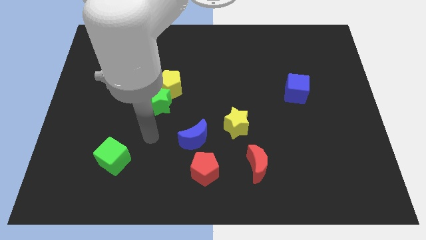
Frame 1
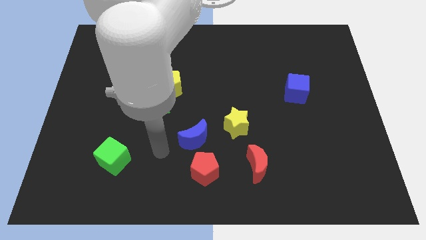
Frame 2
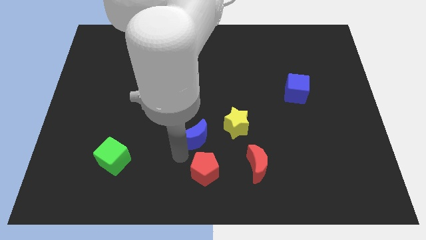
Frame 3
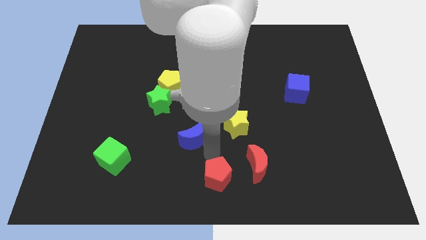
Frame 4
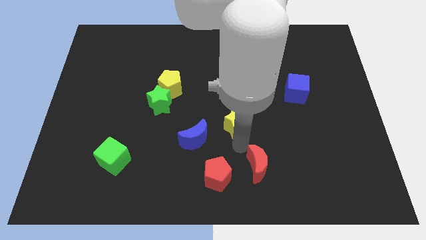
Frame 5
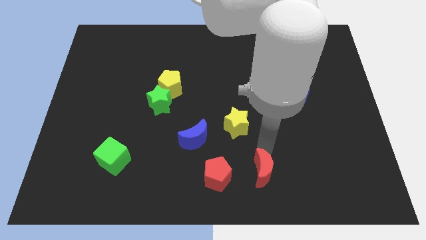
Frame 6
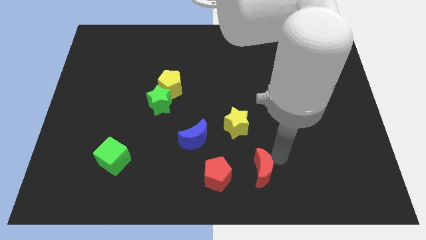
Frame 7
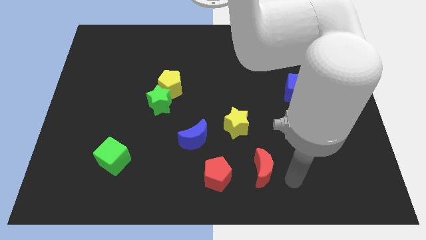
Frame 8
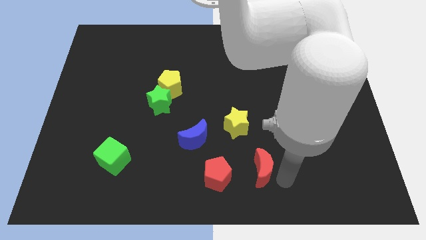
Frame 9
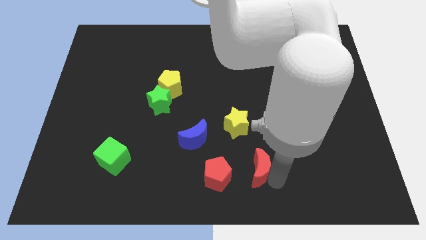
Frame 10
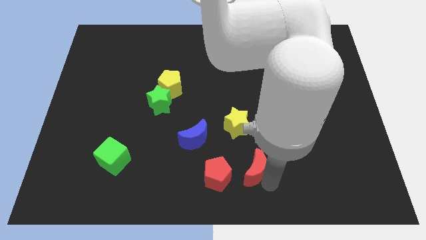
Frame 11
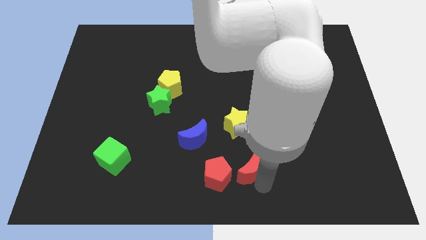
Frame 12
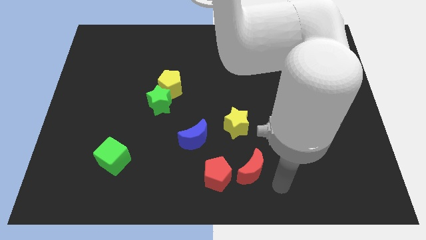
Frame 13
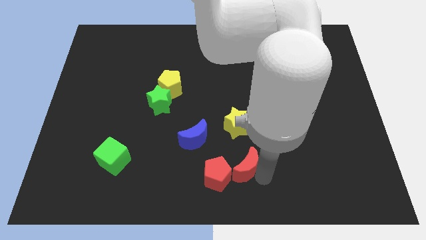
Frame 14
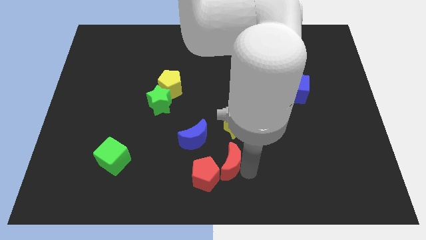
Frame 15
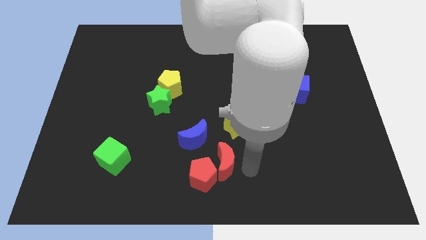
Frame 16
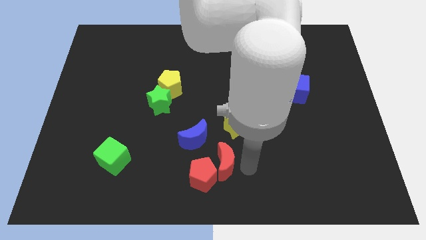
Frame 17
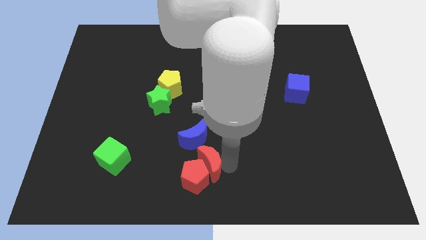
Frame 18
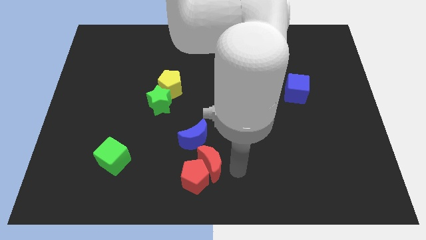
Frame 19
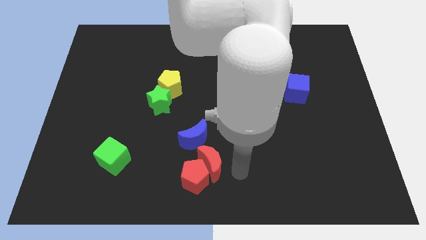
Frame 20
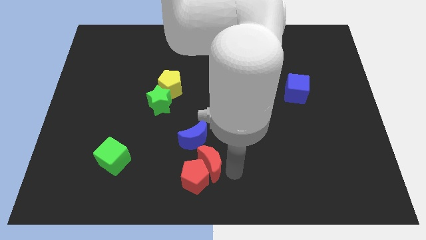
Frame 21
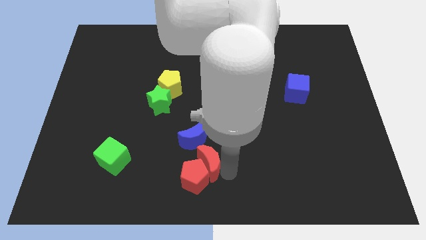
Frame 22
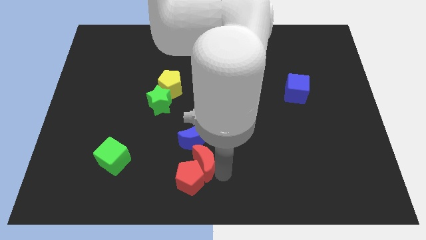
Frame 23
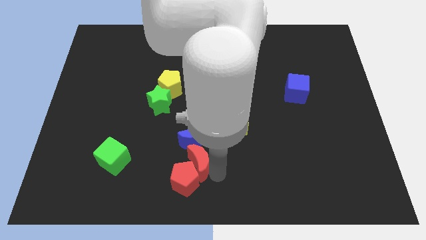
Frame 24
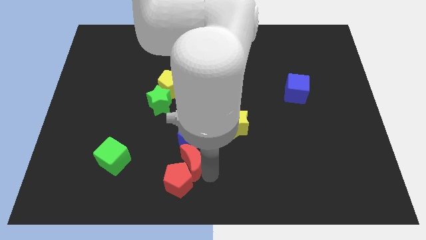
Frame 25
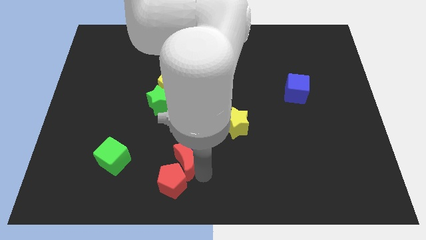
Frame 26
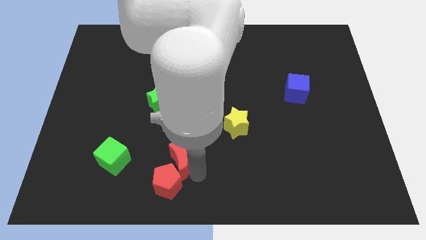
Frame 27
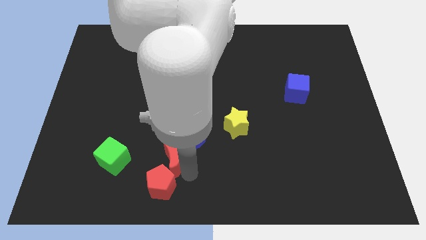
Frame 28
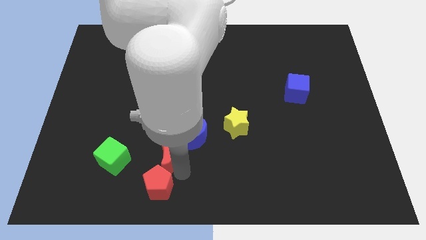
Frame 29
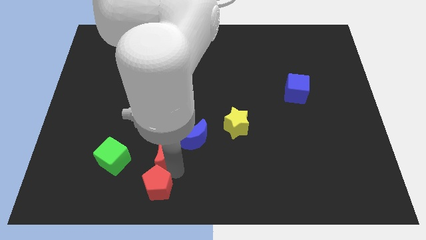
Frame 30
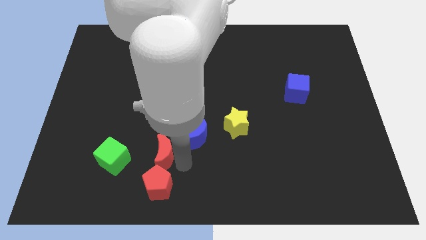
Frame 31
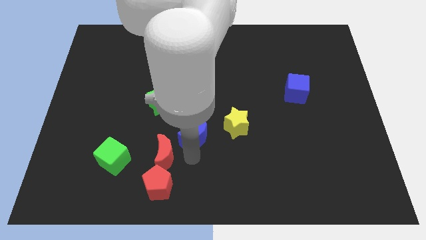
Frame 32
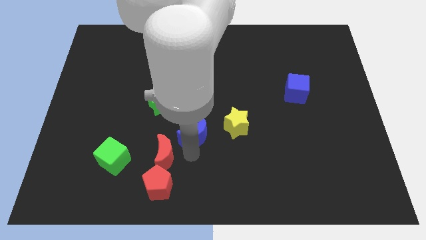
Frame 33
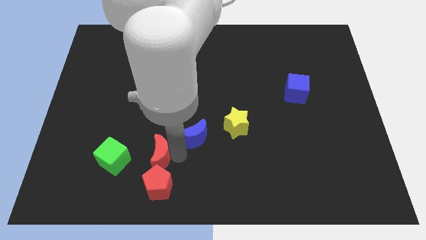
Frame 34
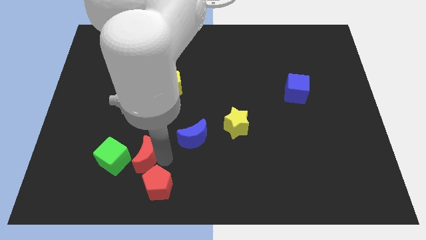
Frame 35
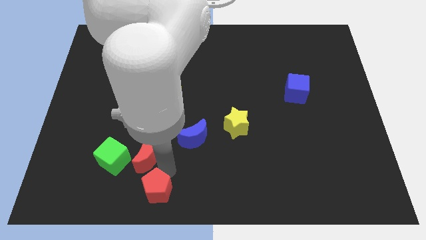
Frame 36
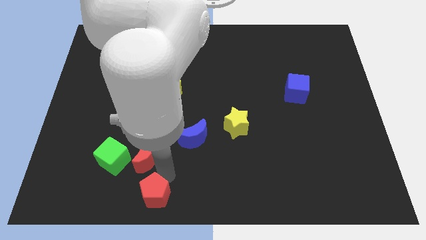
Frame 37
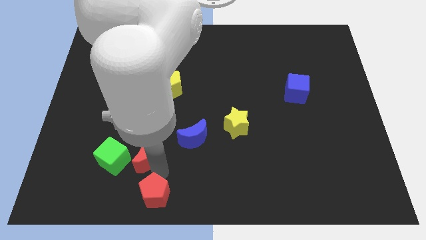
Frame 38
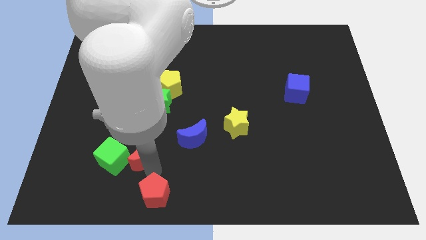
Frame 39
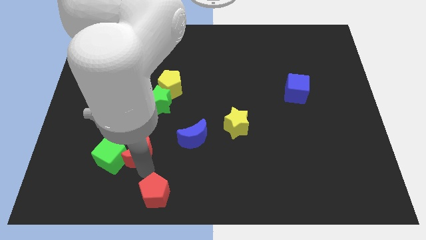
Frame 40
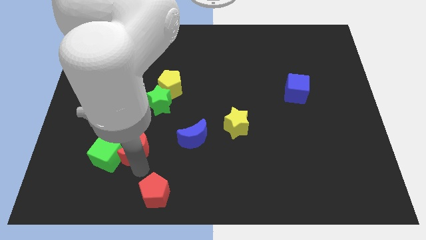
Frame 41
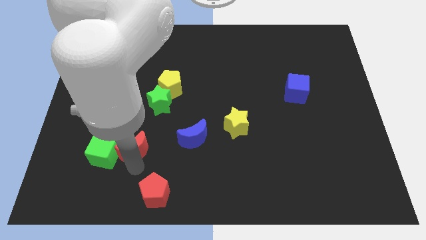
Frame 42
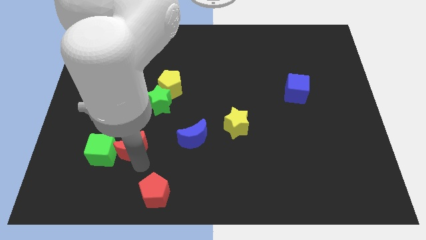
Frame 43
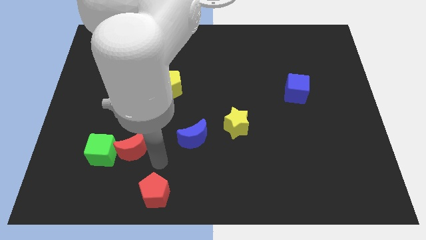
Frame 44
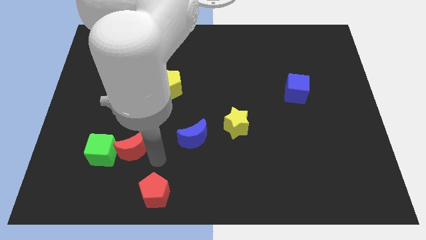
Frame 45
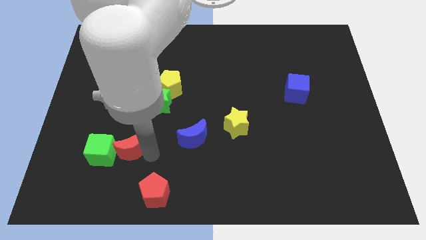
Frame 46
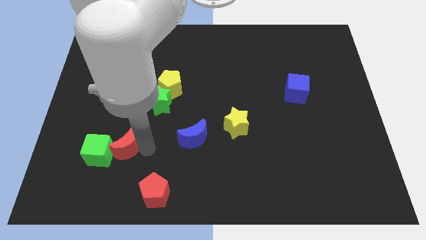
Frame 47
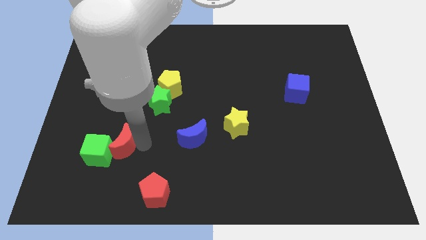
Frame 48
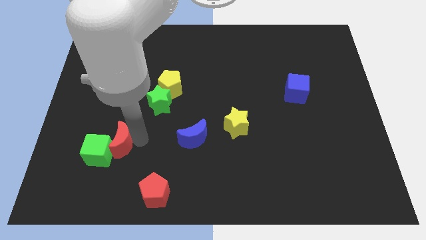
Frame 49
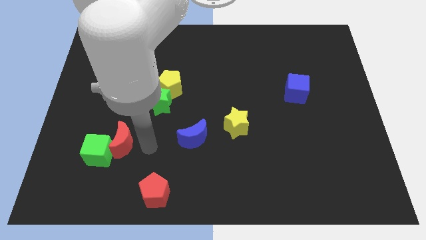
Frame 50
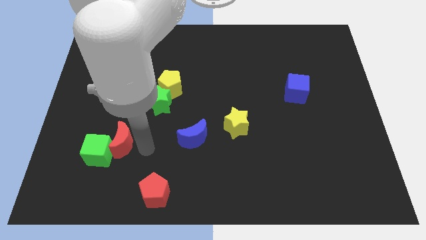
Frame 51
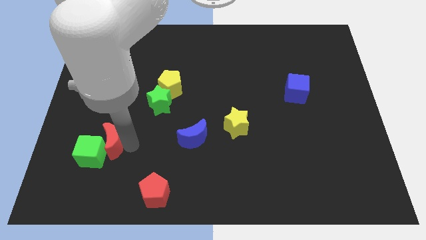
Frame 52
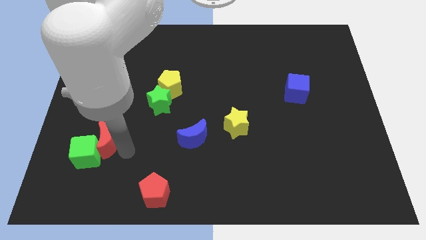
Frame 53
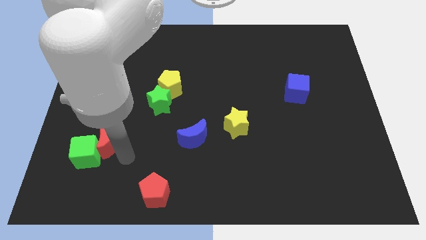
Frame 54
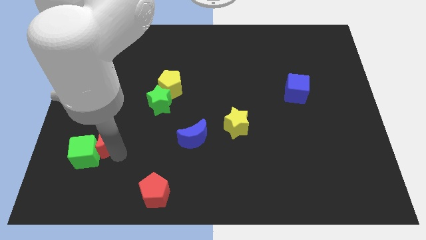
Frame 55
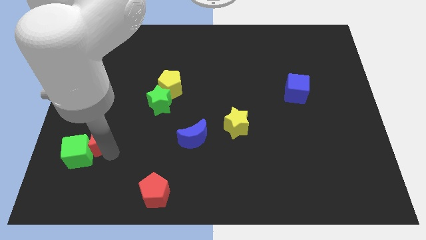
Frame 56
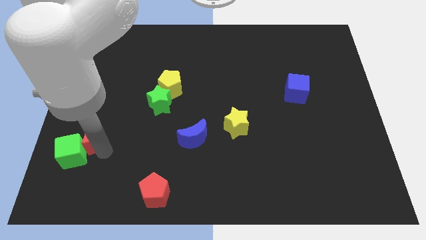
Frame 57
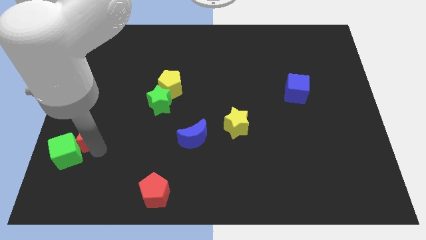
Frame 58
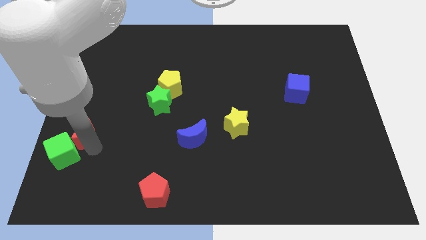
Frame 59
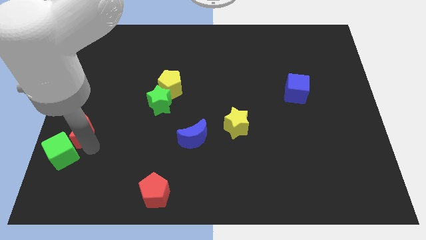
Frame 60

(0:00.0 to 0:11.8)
slide the red moon to the left side of the board

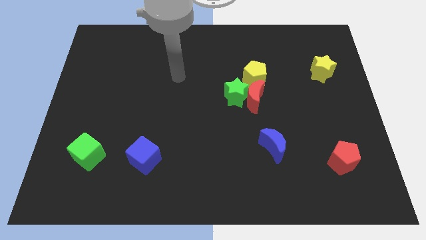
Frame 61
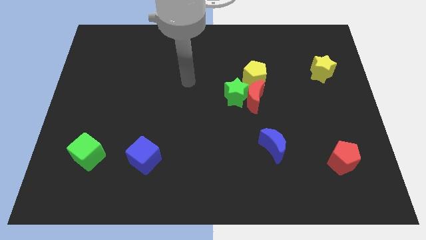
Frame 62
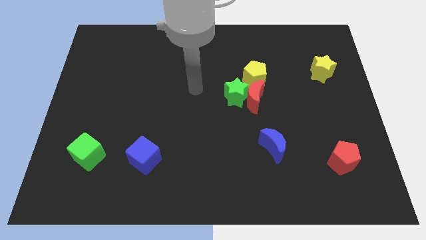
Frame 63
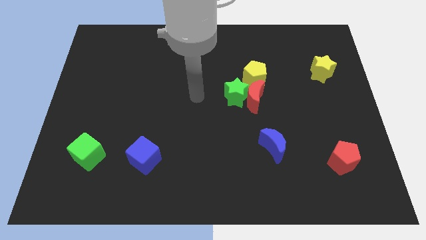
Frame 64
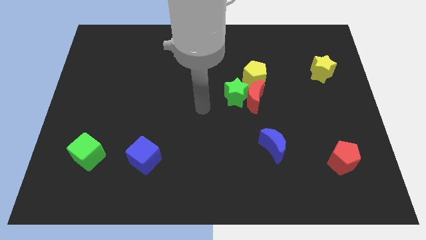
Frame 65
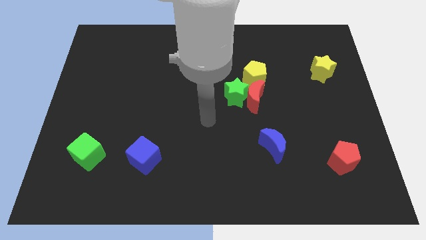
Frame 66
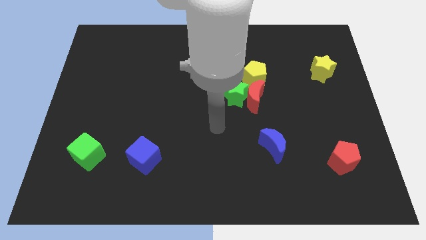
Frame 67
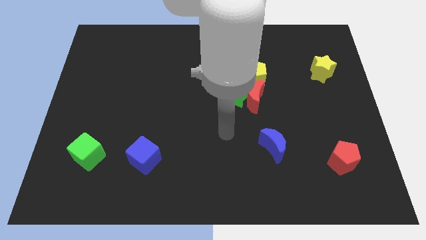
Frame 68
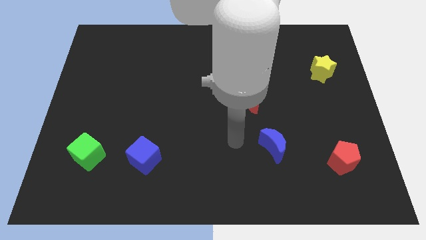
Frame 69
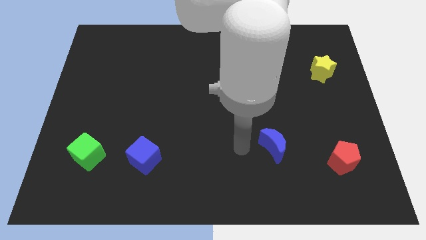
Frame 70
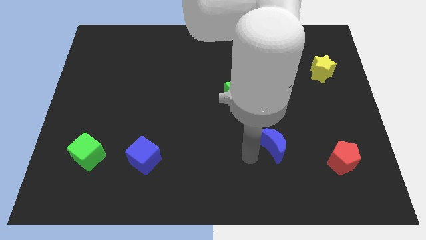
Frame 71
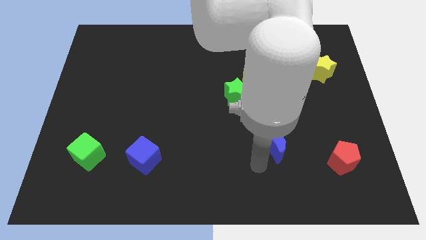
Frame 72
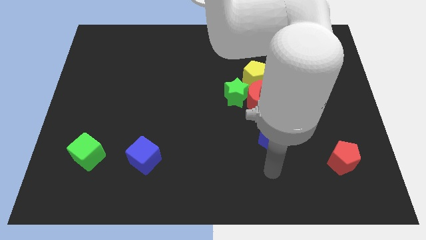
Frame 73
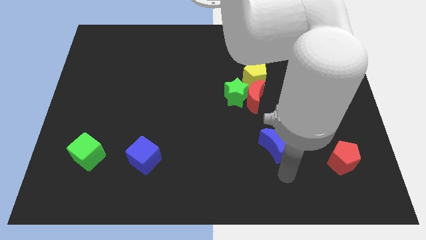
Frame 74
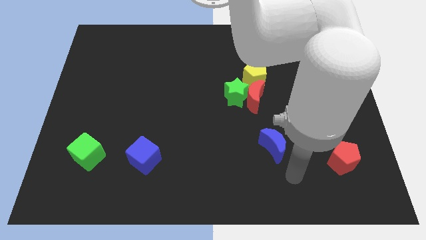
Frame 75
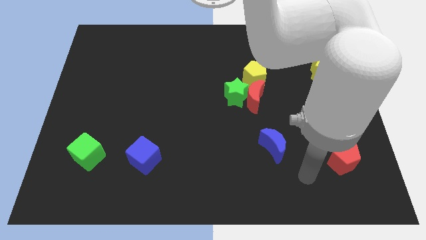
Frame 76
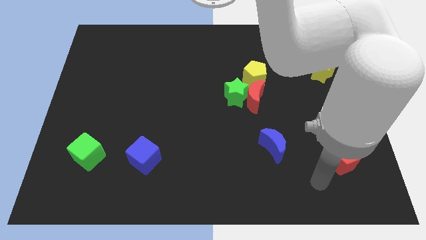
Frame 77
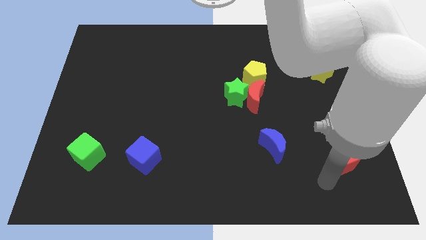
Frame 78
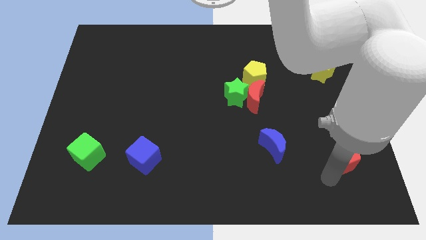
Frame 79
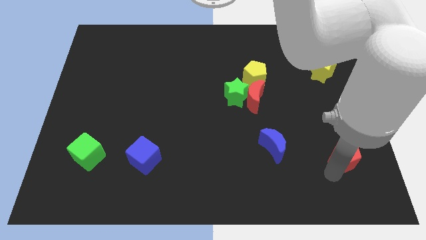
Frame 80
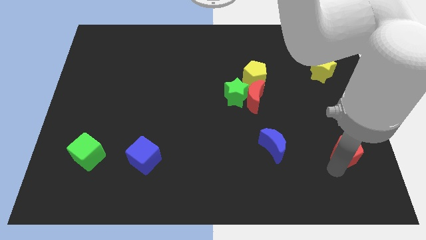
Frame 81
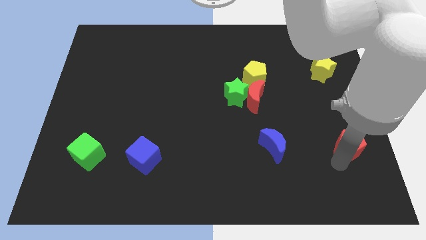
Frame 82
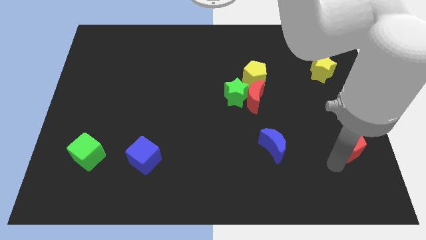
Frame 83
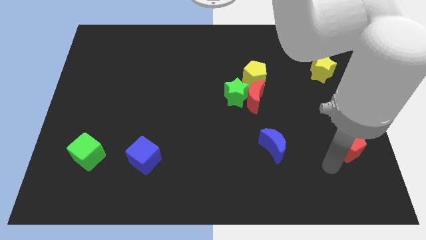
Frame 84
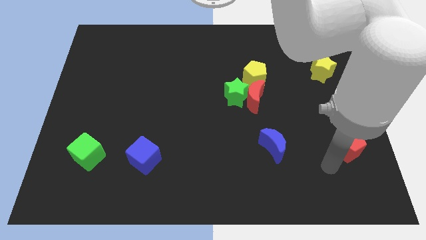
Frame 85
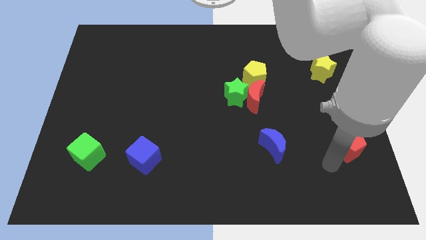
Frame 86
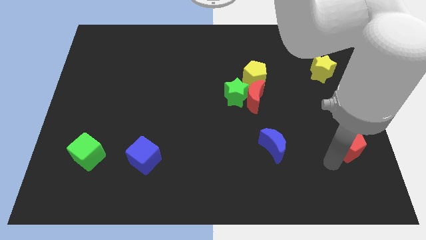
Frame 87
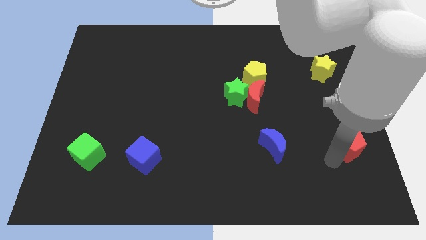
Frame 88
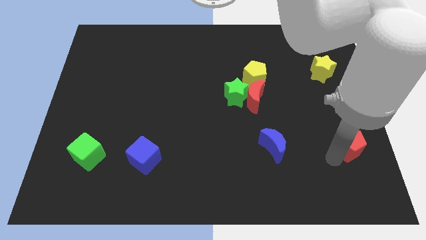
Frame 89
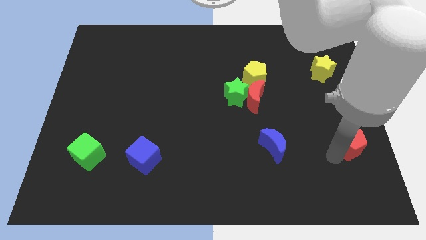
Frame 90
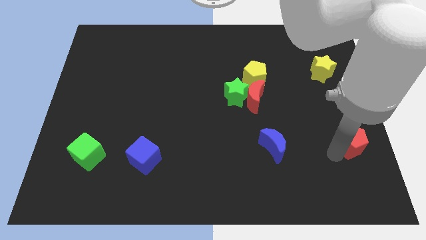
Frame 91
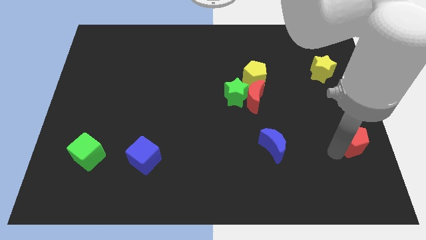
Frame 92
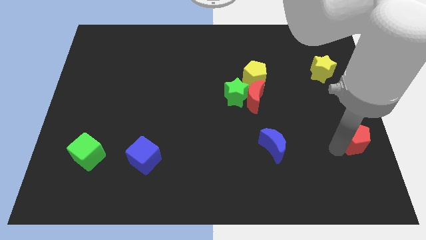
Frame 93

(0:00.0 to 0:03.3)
put the red pentagon to the center right
